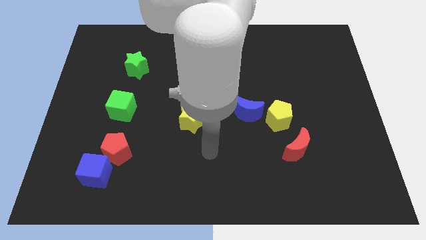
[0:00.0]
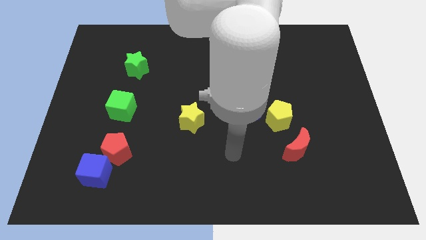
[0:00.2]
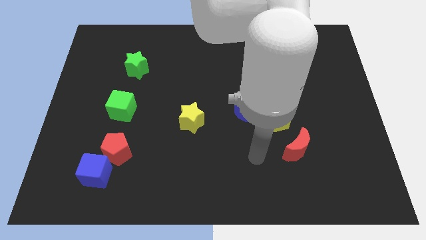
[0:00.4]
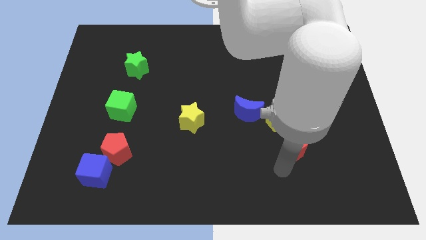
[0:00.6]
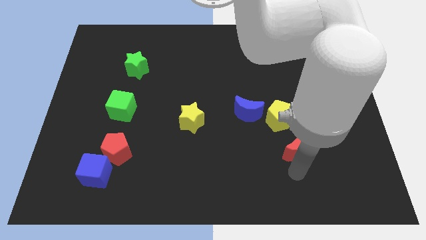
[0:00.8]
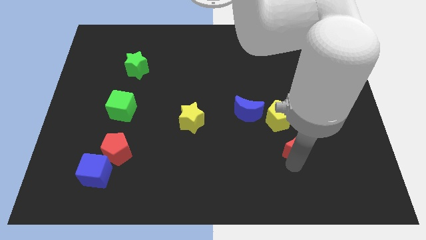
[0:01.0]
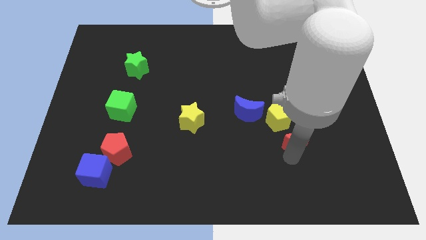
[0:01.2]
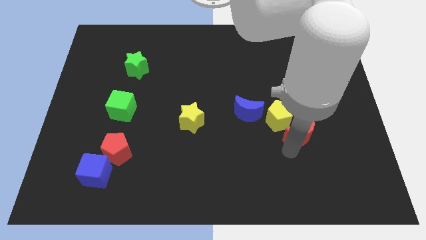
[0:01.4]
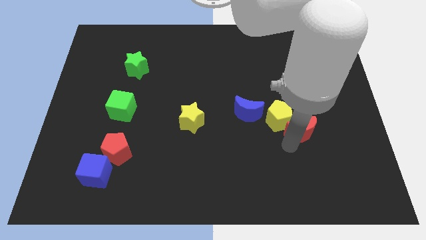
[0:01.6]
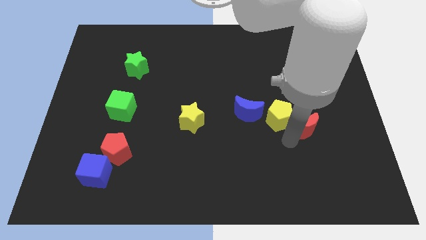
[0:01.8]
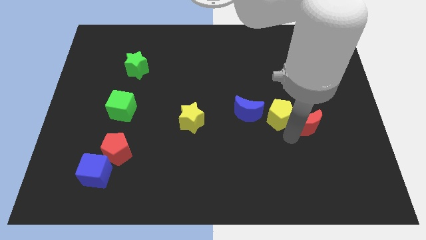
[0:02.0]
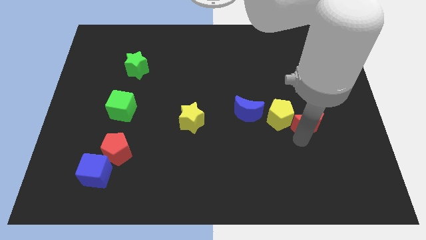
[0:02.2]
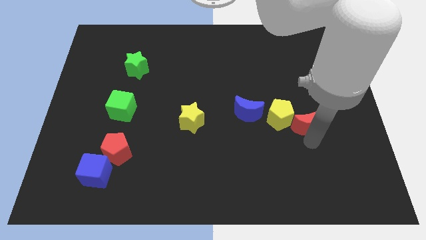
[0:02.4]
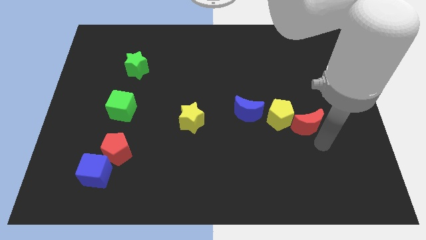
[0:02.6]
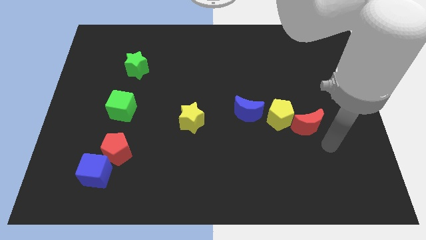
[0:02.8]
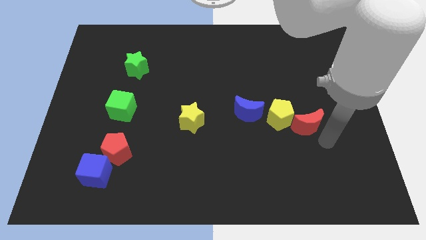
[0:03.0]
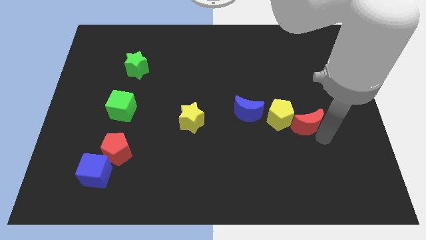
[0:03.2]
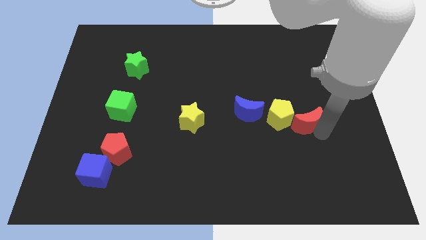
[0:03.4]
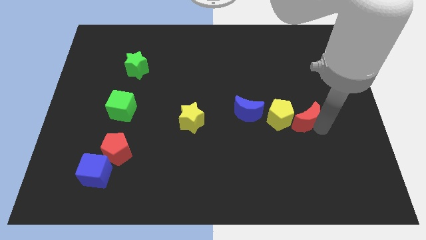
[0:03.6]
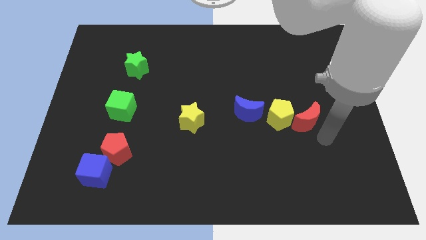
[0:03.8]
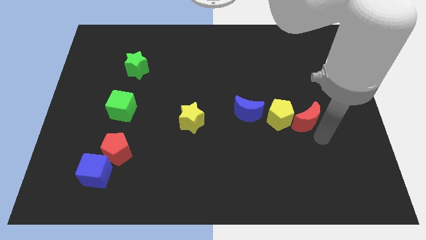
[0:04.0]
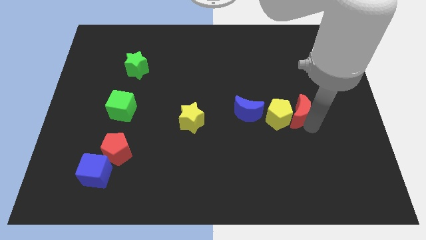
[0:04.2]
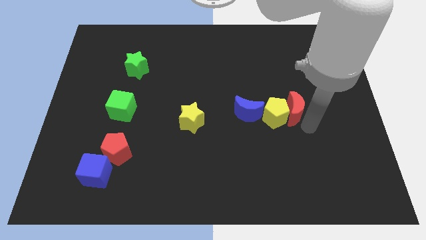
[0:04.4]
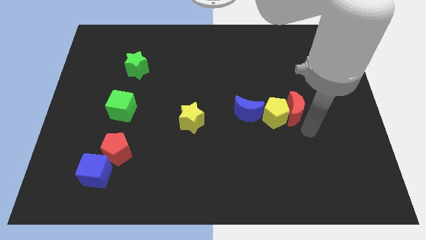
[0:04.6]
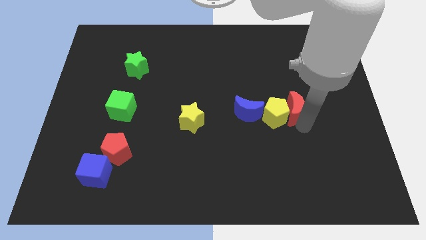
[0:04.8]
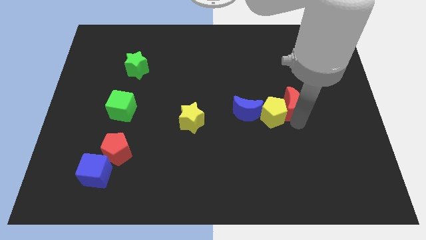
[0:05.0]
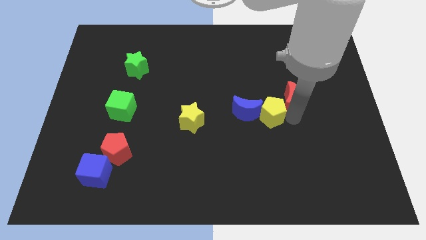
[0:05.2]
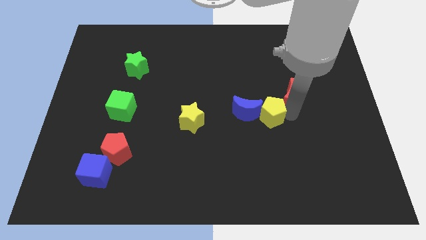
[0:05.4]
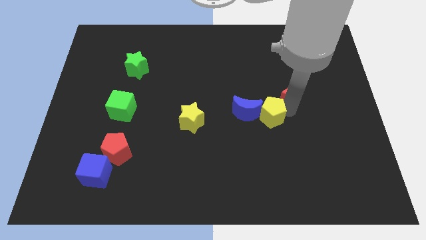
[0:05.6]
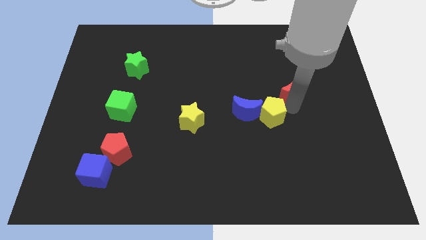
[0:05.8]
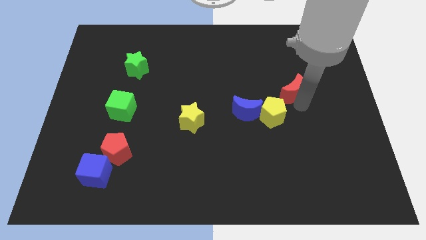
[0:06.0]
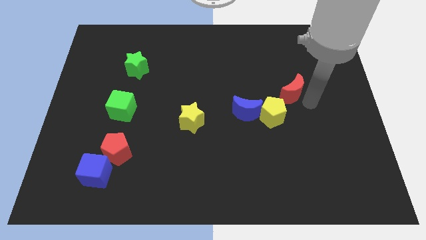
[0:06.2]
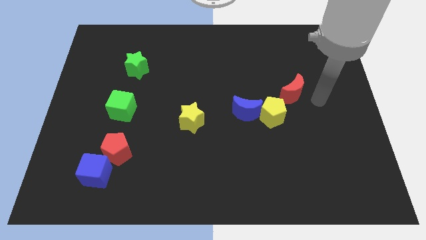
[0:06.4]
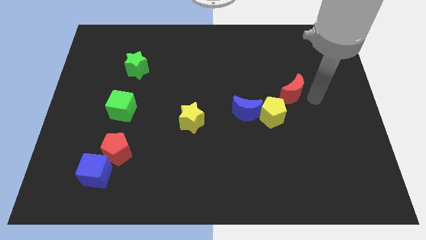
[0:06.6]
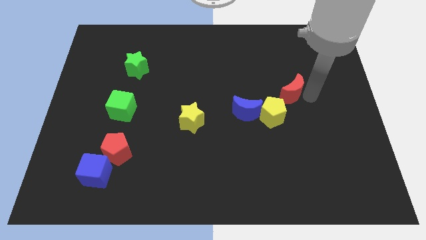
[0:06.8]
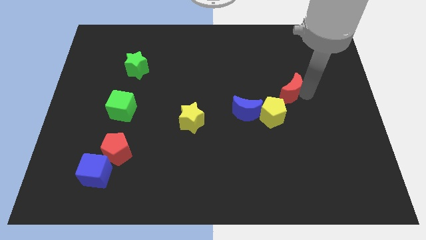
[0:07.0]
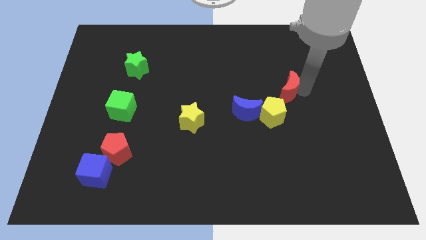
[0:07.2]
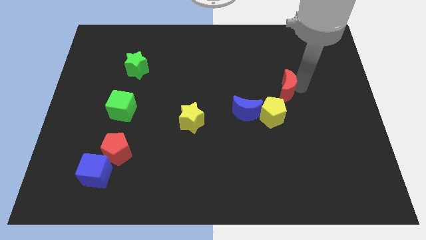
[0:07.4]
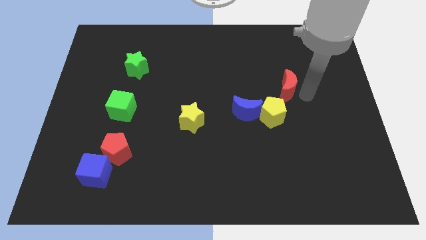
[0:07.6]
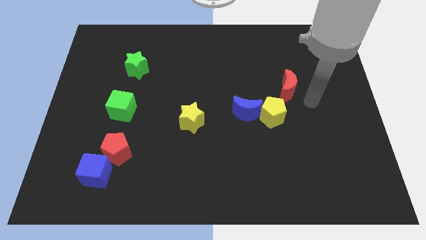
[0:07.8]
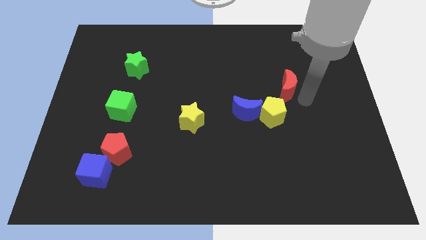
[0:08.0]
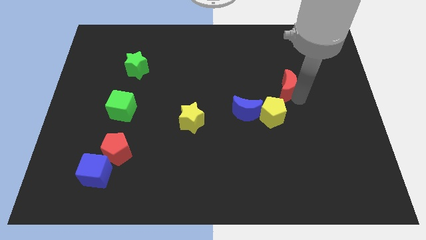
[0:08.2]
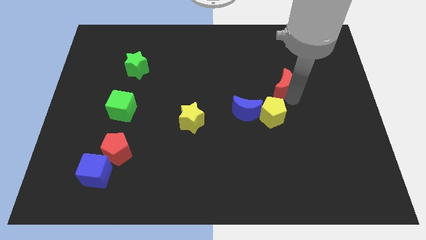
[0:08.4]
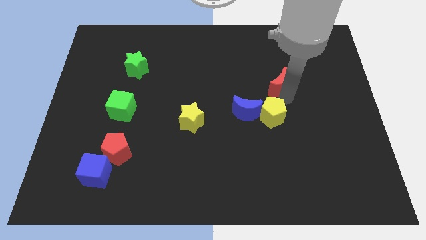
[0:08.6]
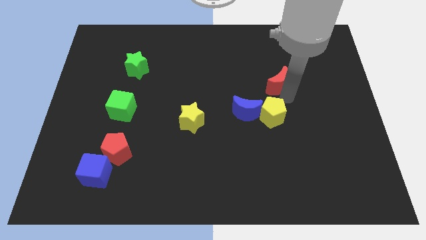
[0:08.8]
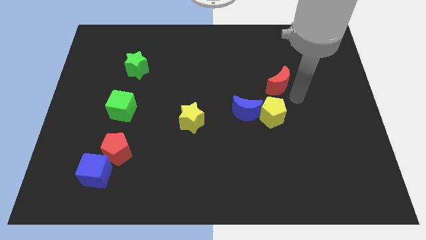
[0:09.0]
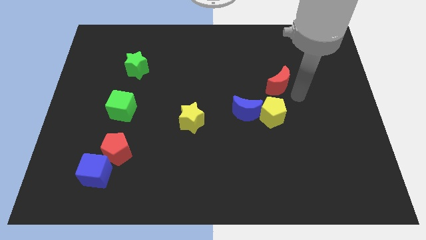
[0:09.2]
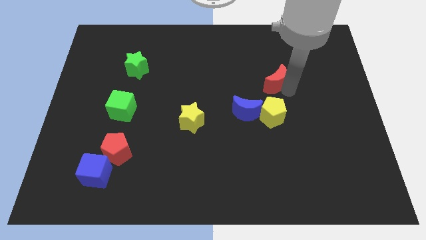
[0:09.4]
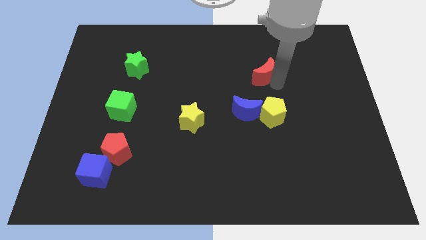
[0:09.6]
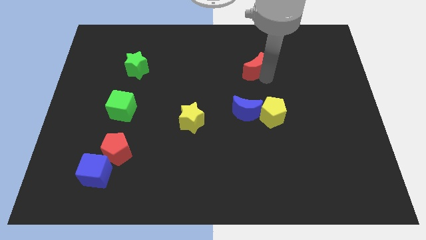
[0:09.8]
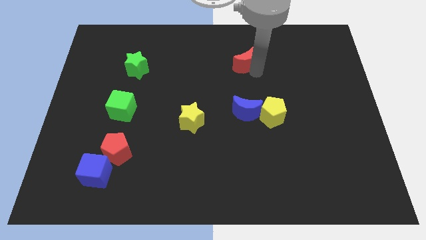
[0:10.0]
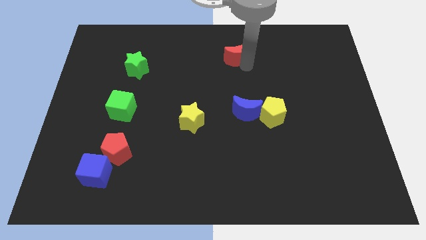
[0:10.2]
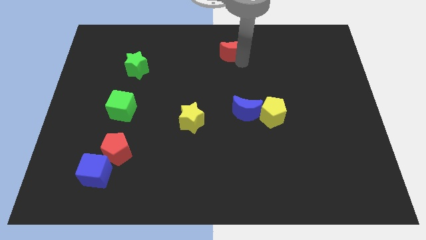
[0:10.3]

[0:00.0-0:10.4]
push the red moon to the top side

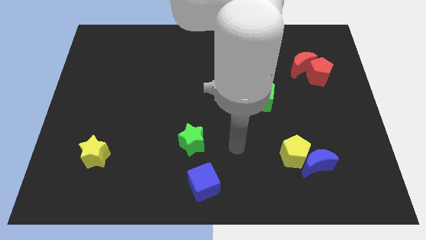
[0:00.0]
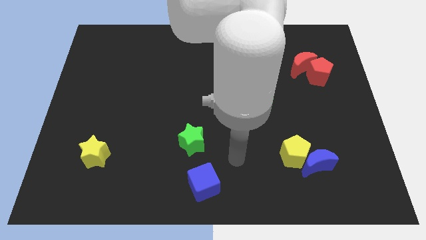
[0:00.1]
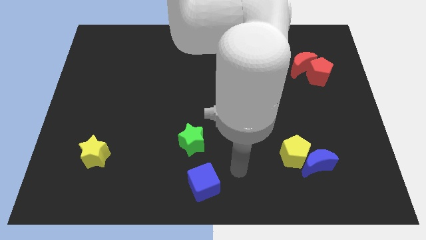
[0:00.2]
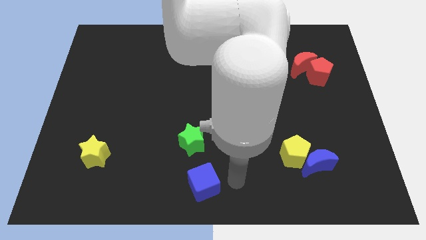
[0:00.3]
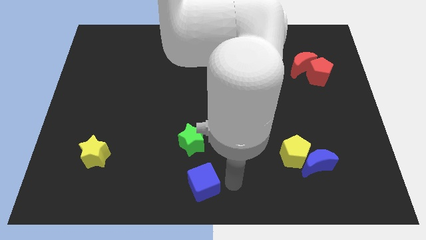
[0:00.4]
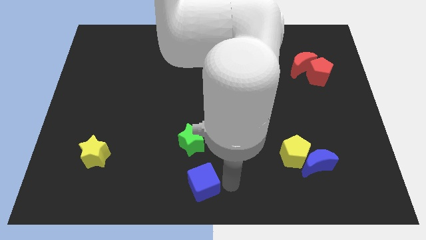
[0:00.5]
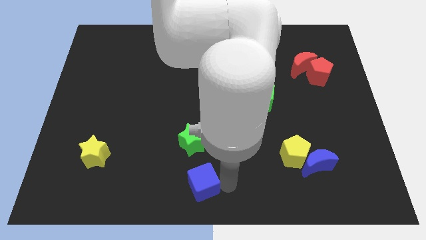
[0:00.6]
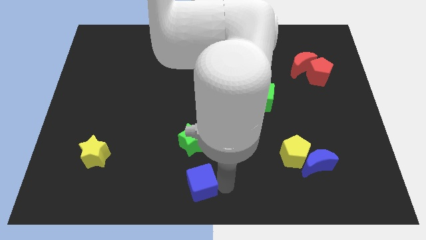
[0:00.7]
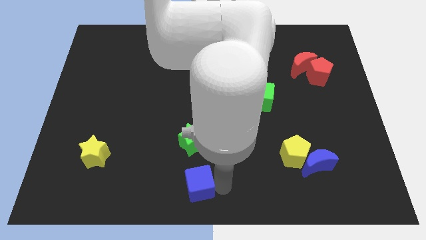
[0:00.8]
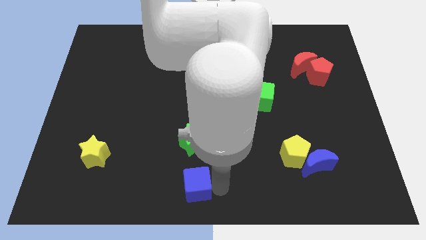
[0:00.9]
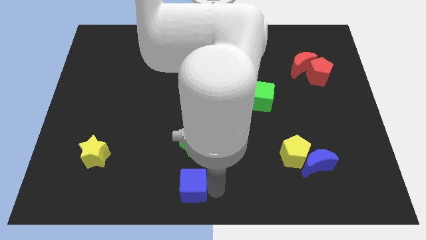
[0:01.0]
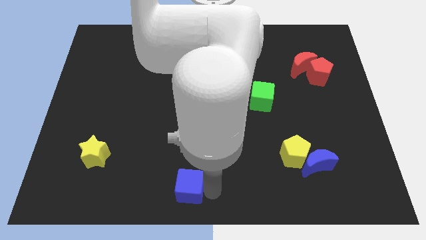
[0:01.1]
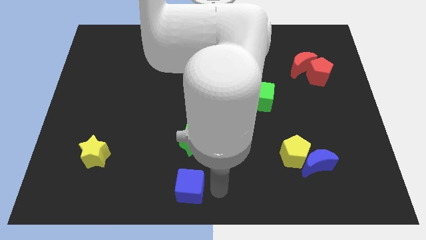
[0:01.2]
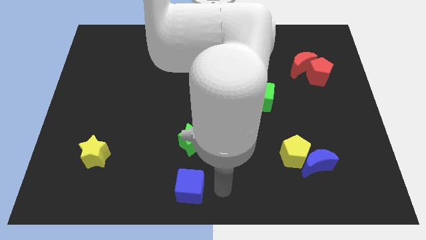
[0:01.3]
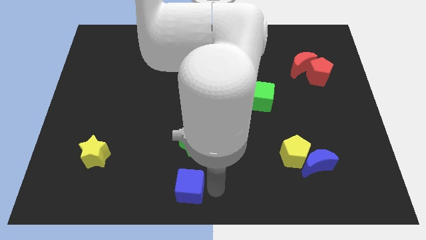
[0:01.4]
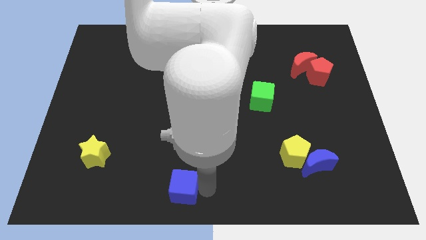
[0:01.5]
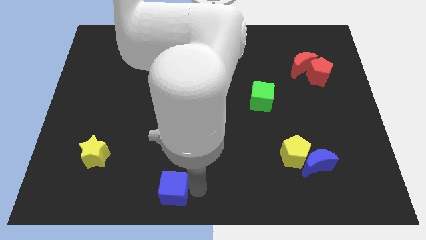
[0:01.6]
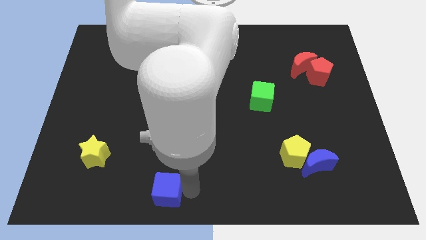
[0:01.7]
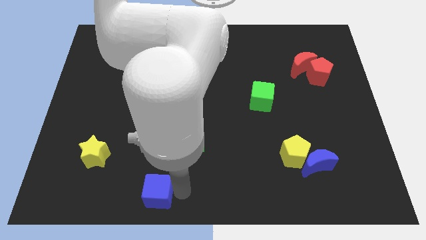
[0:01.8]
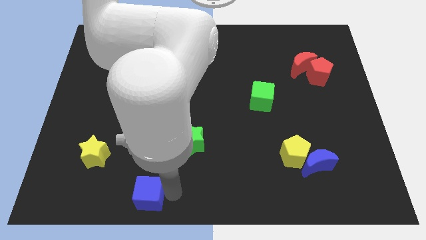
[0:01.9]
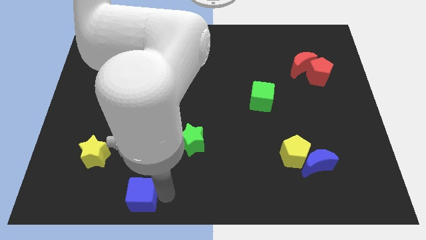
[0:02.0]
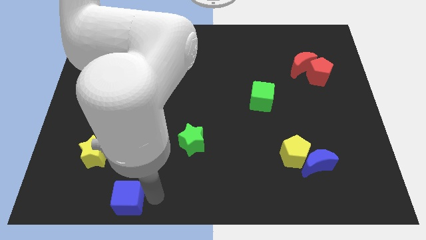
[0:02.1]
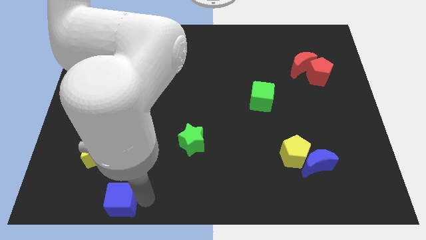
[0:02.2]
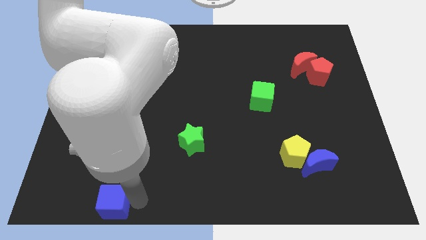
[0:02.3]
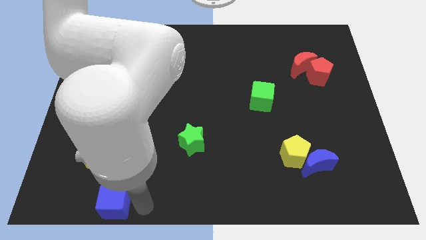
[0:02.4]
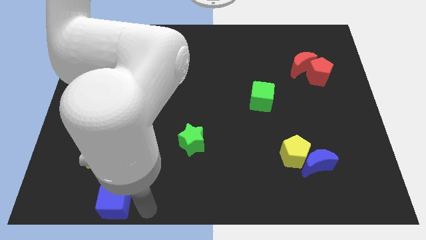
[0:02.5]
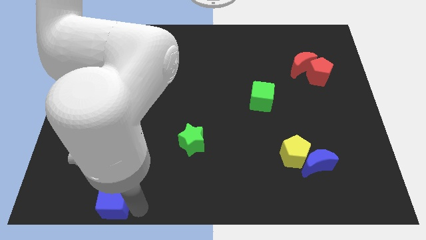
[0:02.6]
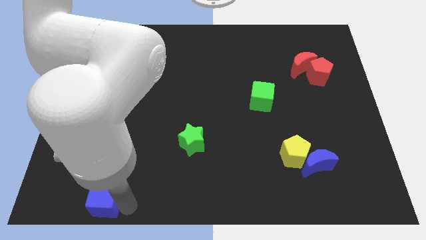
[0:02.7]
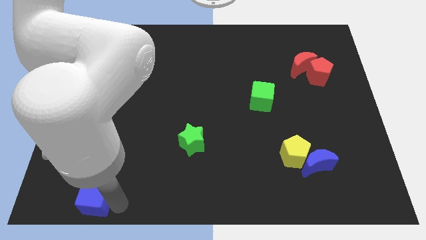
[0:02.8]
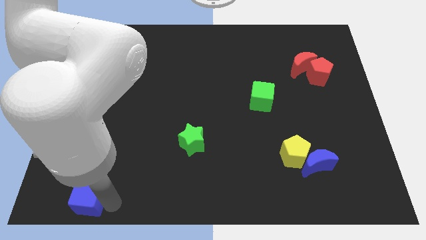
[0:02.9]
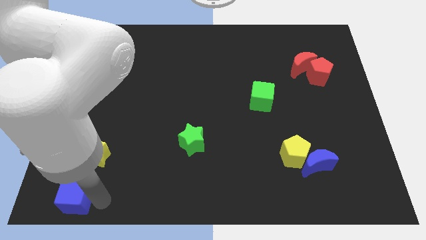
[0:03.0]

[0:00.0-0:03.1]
move the blue cube to the bottom left corner

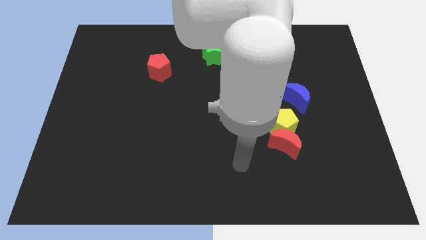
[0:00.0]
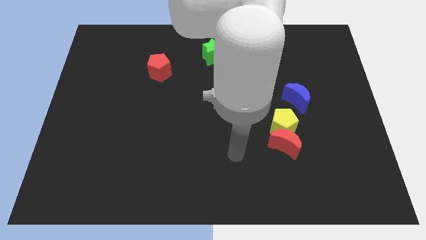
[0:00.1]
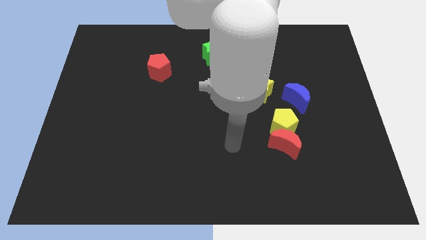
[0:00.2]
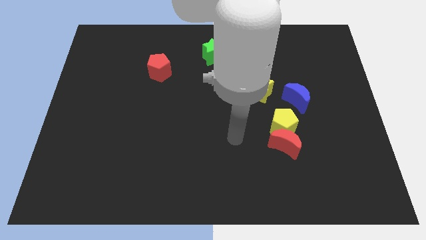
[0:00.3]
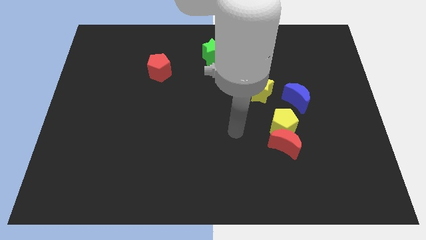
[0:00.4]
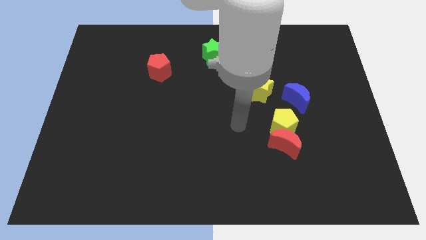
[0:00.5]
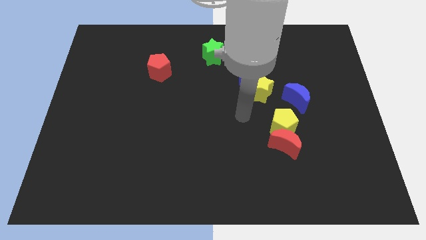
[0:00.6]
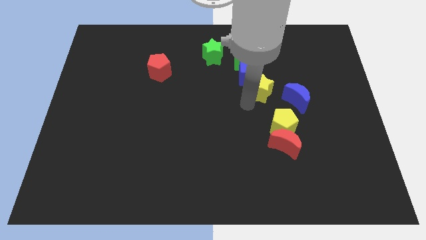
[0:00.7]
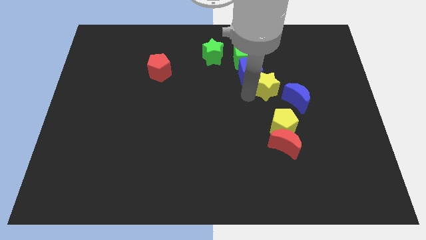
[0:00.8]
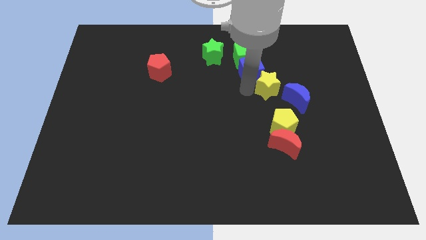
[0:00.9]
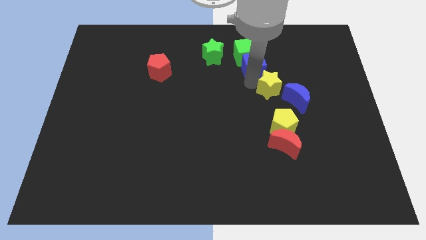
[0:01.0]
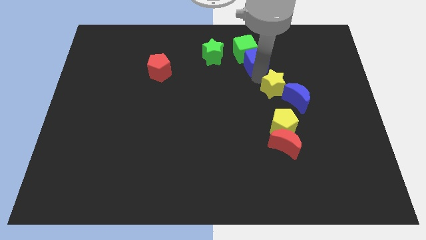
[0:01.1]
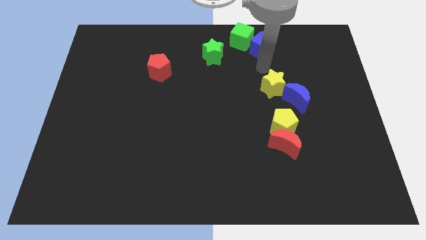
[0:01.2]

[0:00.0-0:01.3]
slide the green cube to the towards your base
